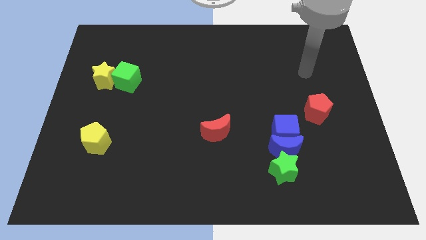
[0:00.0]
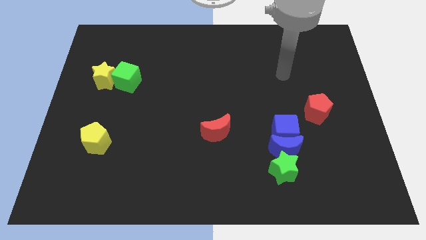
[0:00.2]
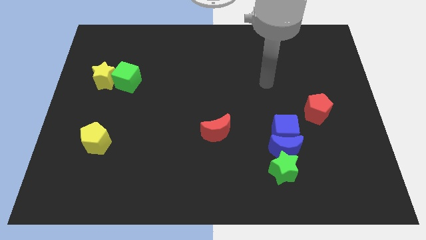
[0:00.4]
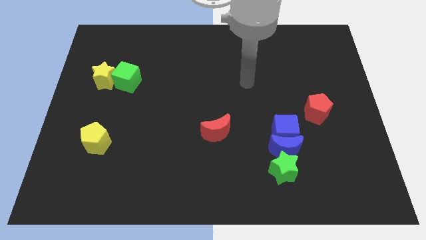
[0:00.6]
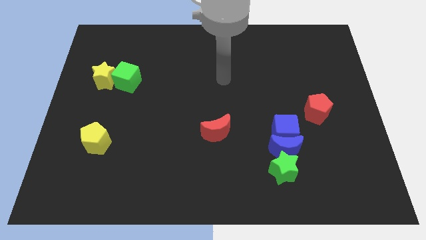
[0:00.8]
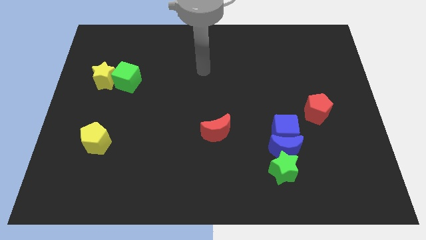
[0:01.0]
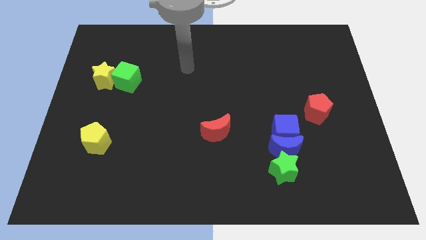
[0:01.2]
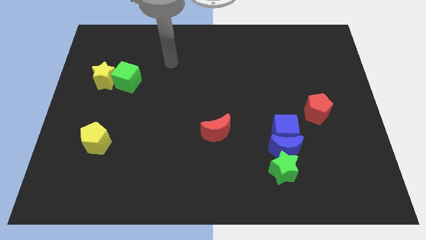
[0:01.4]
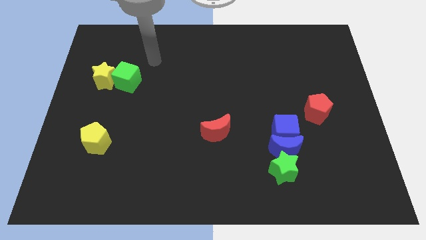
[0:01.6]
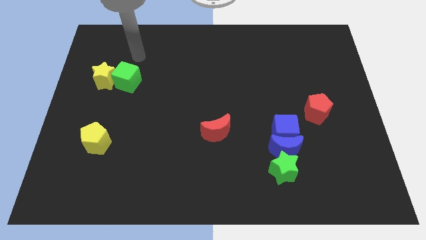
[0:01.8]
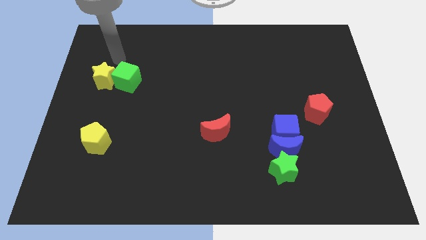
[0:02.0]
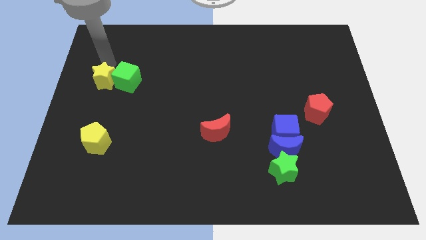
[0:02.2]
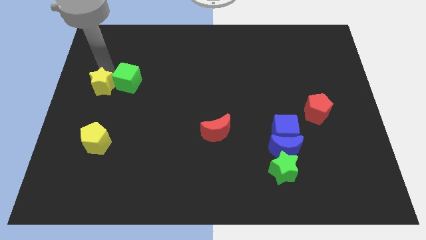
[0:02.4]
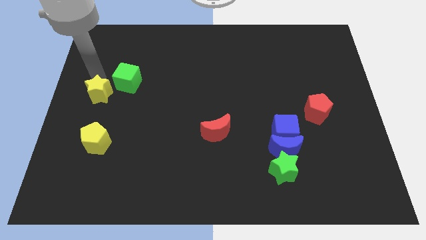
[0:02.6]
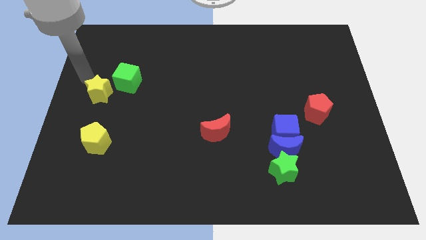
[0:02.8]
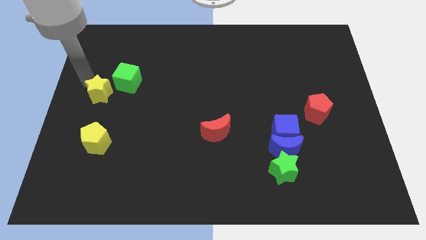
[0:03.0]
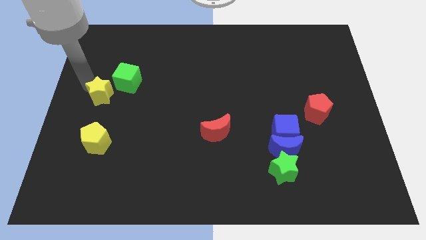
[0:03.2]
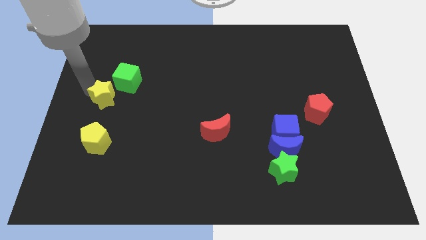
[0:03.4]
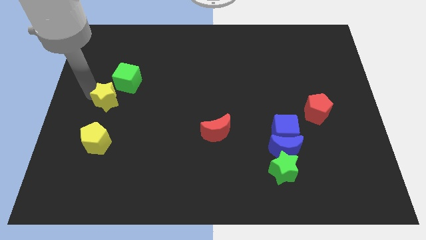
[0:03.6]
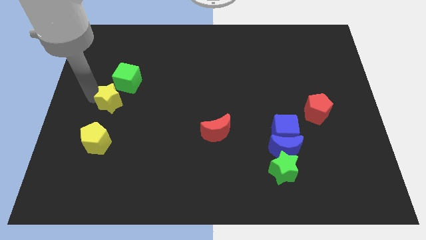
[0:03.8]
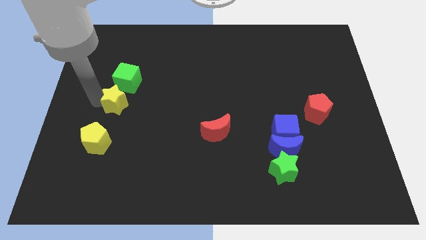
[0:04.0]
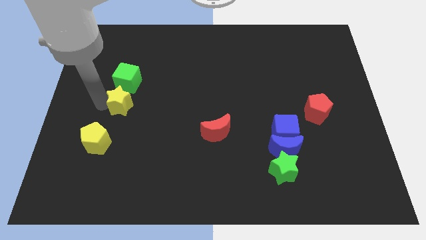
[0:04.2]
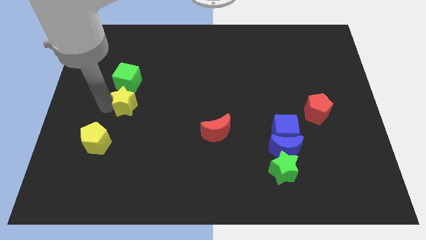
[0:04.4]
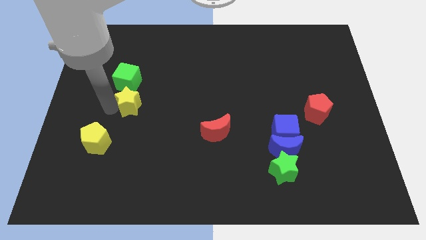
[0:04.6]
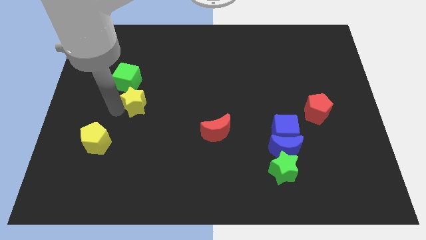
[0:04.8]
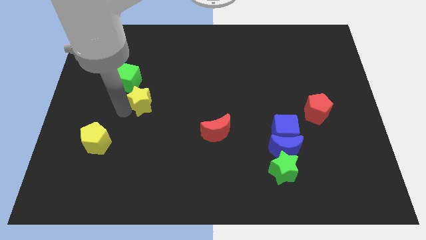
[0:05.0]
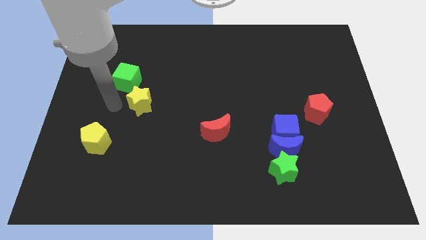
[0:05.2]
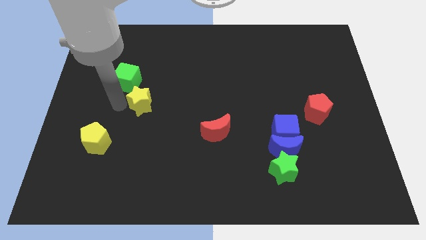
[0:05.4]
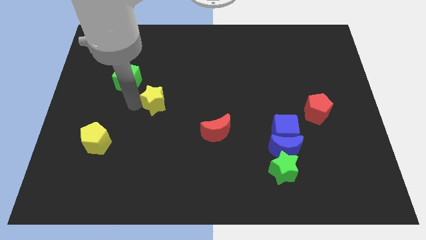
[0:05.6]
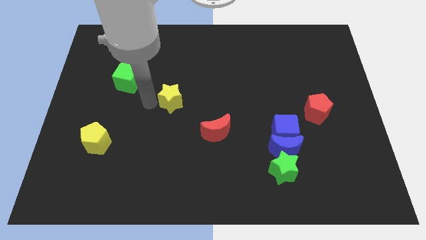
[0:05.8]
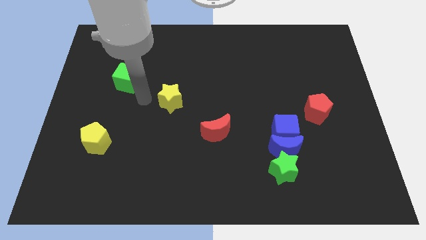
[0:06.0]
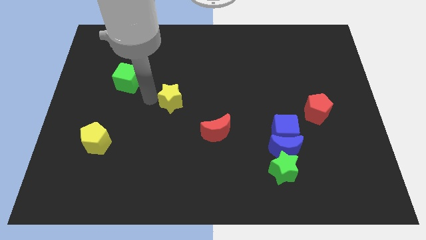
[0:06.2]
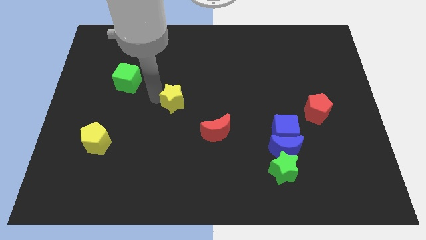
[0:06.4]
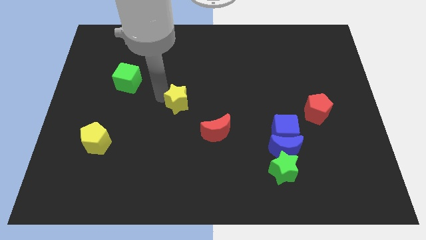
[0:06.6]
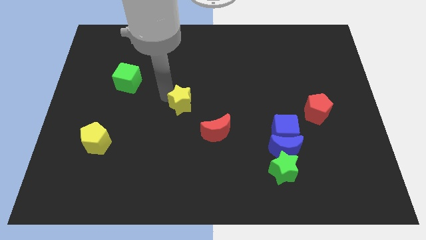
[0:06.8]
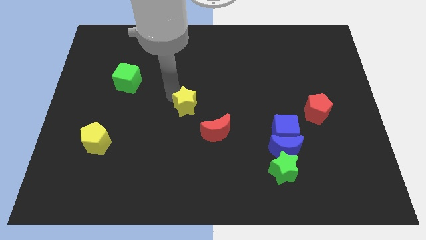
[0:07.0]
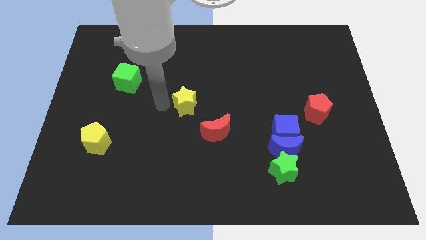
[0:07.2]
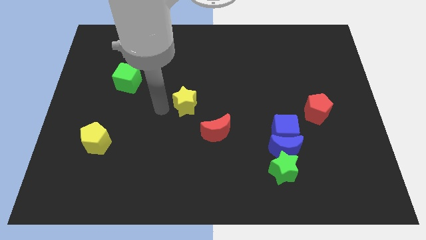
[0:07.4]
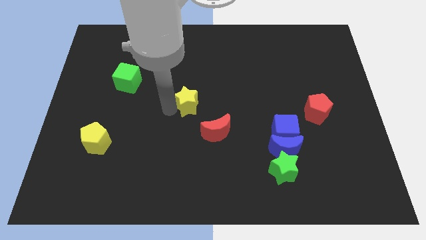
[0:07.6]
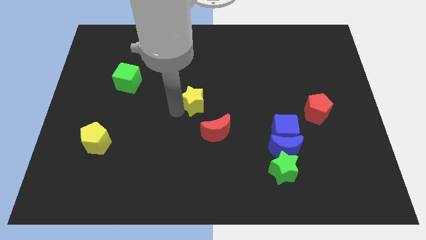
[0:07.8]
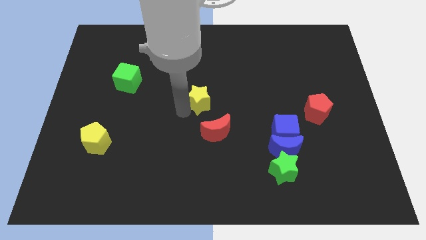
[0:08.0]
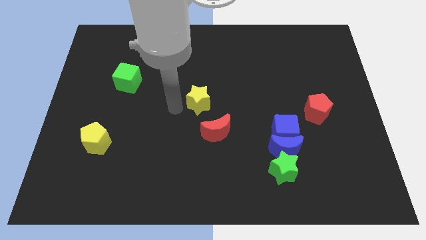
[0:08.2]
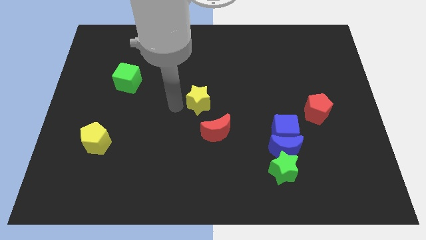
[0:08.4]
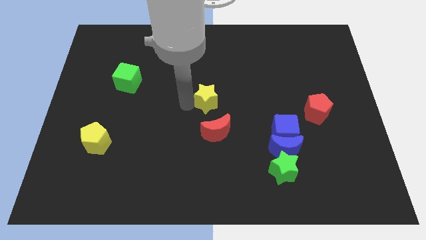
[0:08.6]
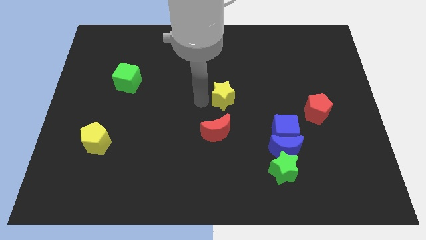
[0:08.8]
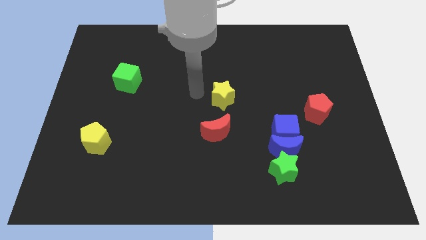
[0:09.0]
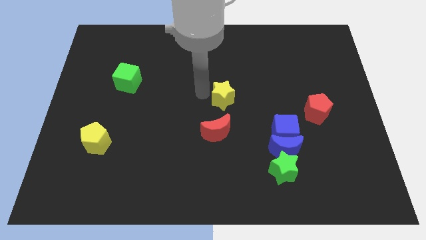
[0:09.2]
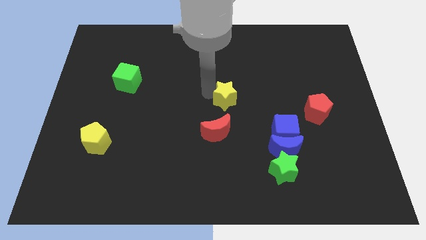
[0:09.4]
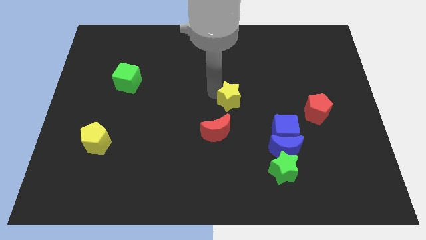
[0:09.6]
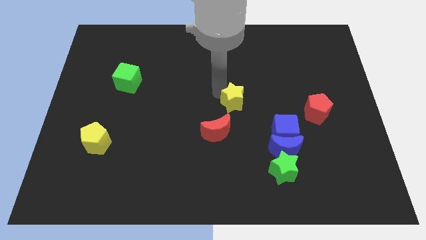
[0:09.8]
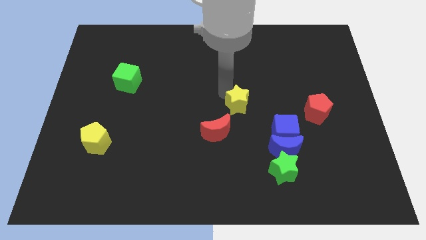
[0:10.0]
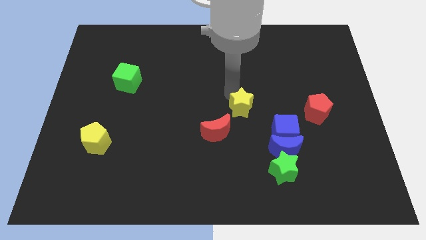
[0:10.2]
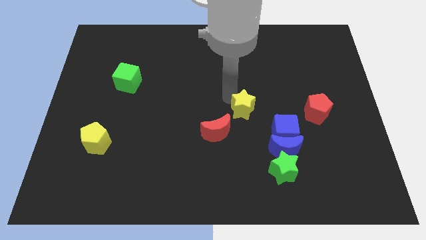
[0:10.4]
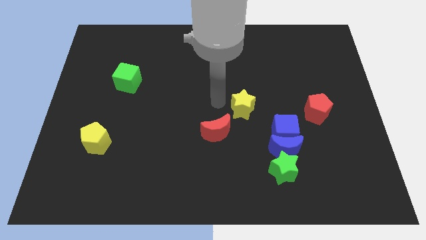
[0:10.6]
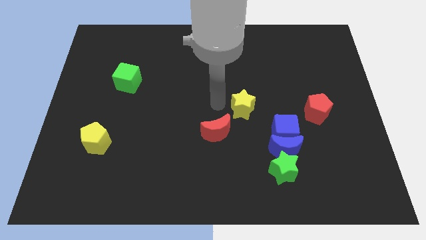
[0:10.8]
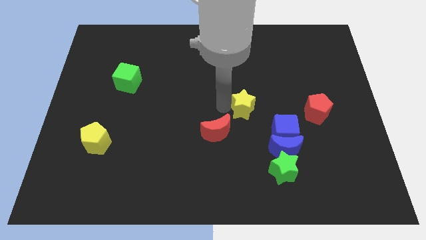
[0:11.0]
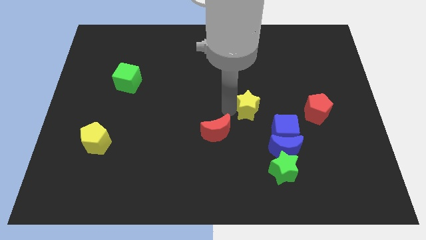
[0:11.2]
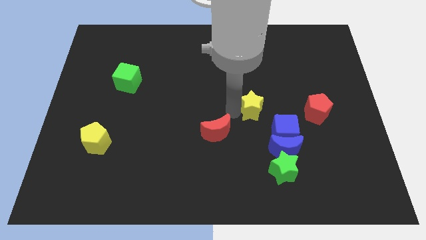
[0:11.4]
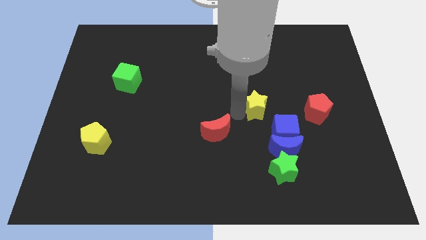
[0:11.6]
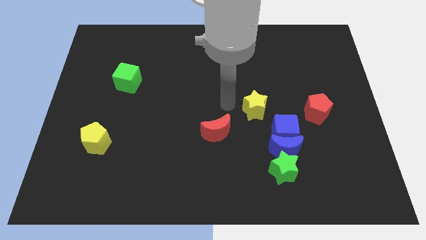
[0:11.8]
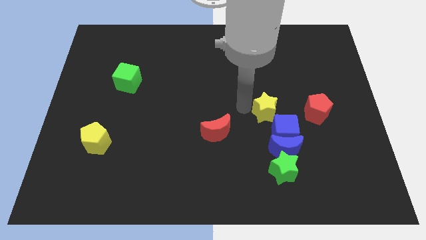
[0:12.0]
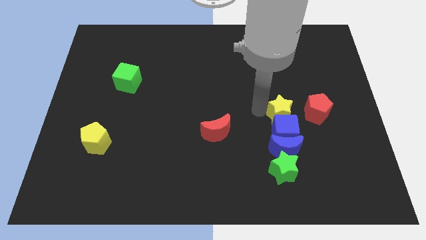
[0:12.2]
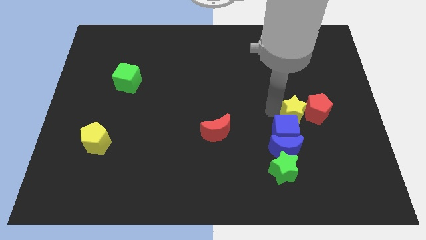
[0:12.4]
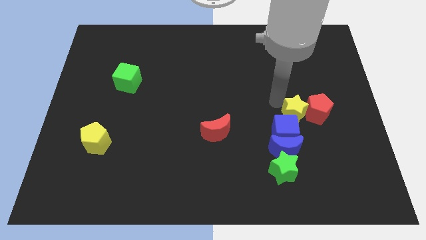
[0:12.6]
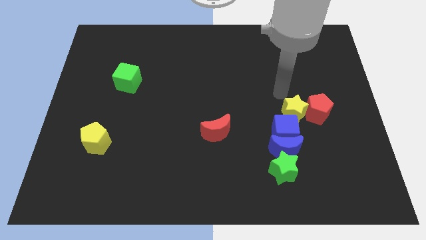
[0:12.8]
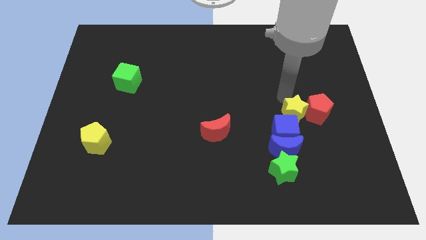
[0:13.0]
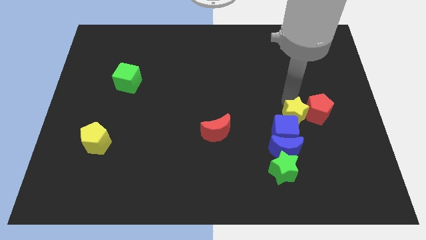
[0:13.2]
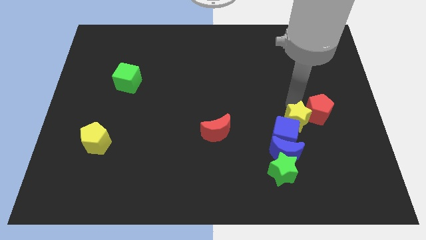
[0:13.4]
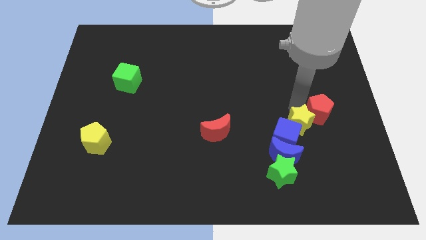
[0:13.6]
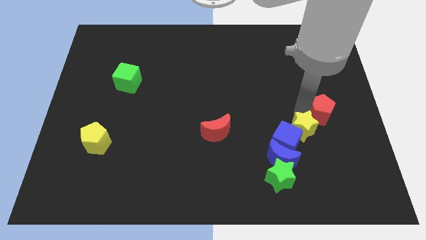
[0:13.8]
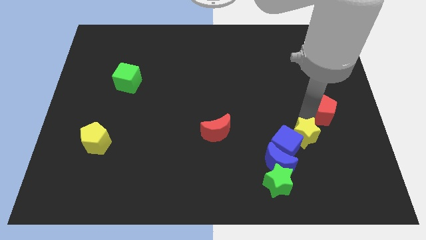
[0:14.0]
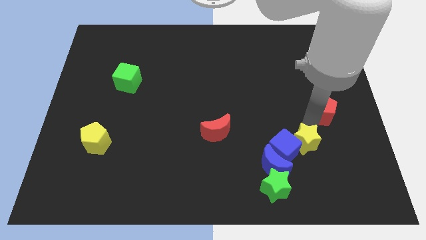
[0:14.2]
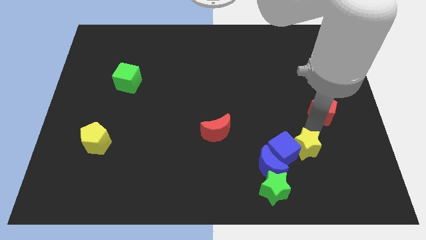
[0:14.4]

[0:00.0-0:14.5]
push the yellow star diagonally down and to the right of the blue cube
